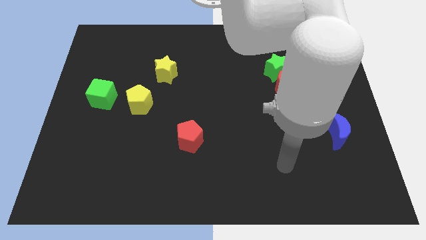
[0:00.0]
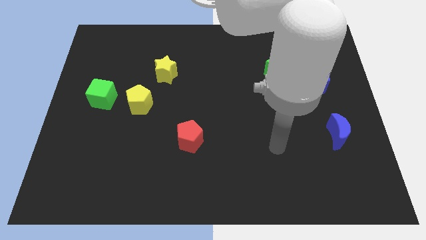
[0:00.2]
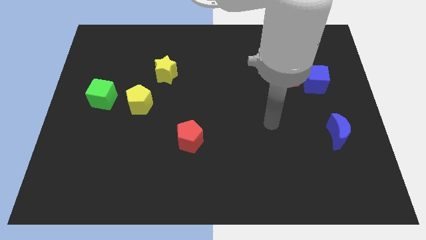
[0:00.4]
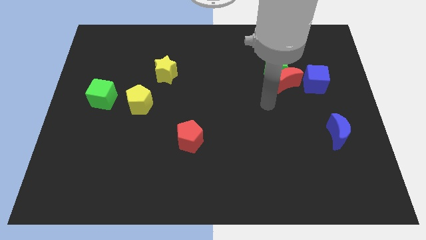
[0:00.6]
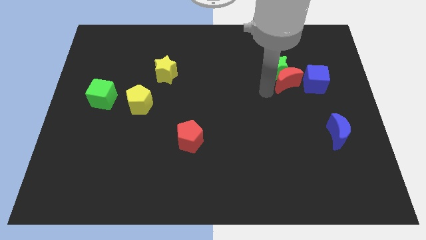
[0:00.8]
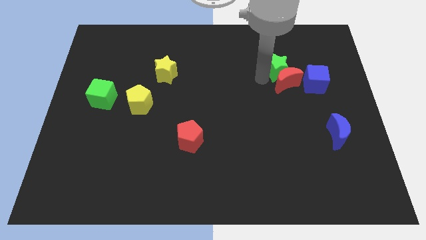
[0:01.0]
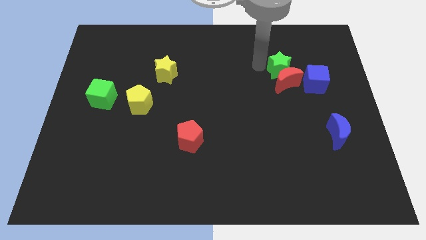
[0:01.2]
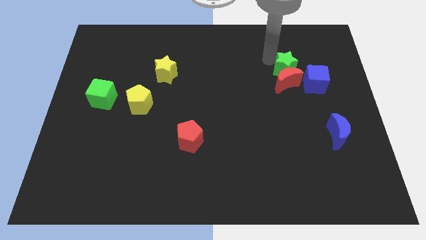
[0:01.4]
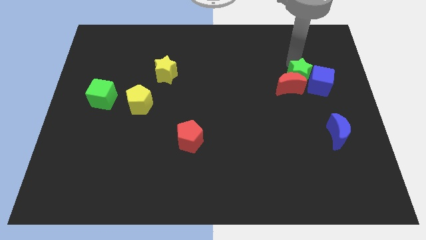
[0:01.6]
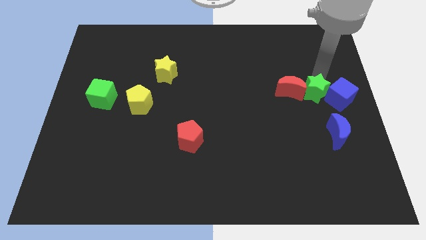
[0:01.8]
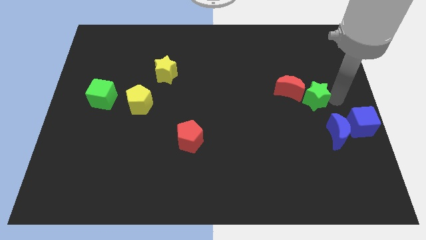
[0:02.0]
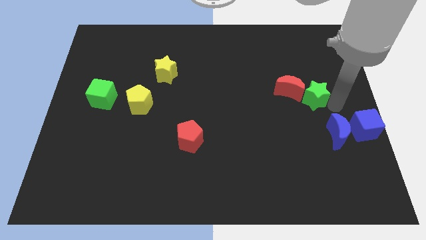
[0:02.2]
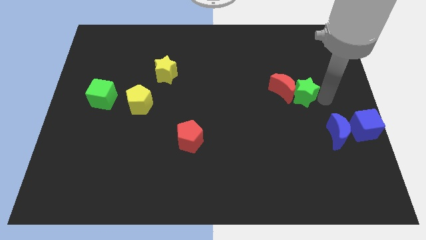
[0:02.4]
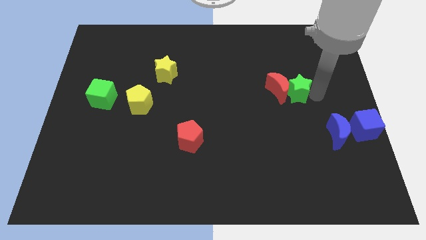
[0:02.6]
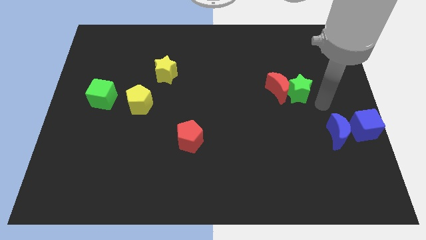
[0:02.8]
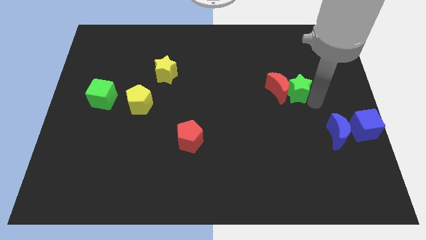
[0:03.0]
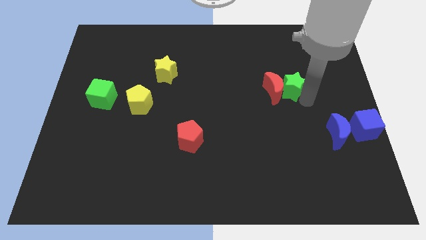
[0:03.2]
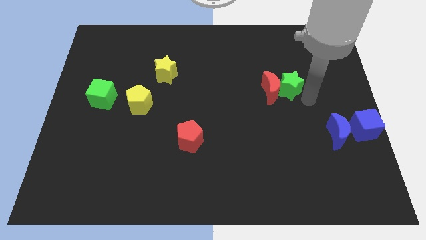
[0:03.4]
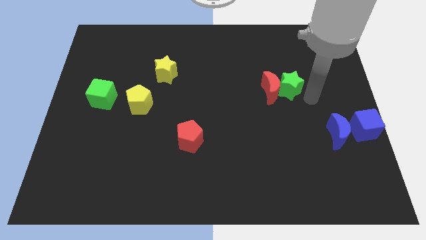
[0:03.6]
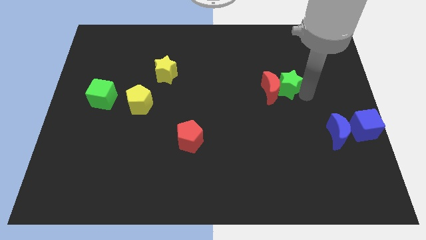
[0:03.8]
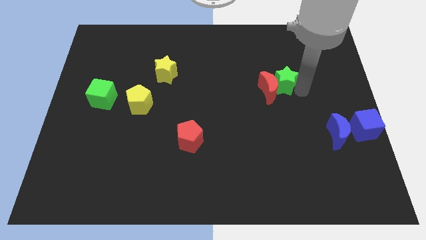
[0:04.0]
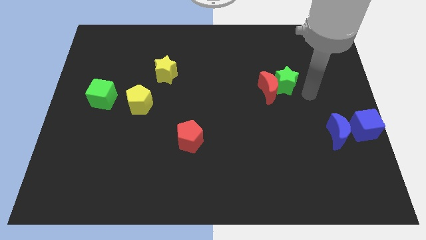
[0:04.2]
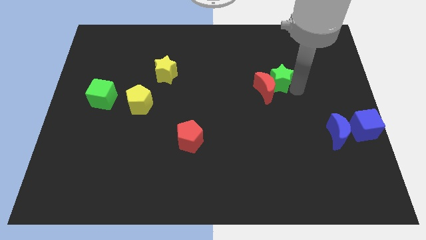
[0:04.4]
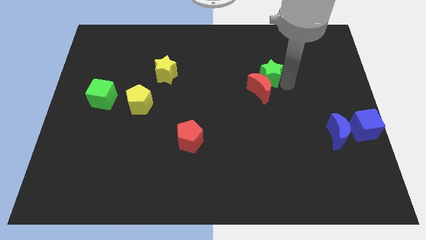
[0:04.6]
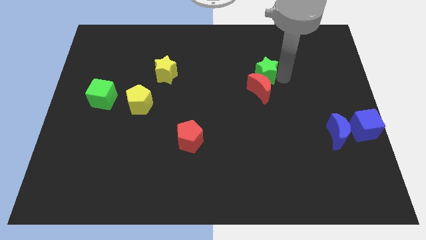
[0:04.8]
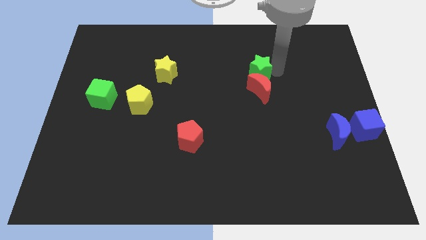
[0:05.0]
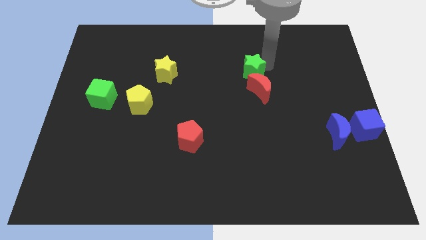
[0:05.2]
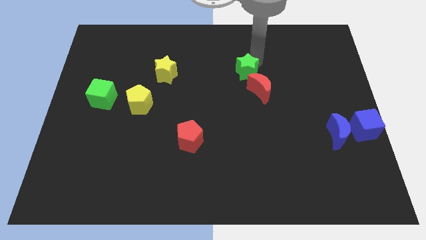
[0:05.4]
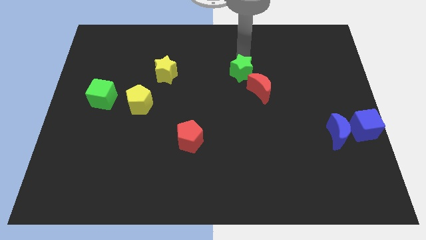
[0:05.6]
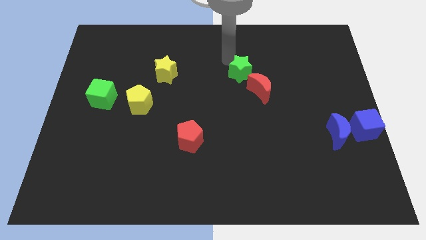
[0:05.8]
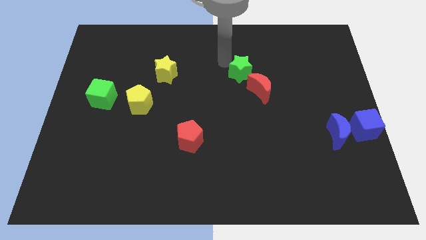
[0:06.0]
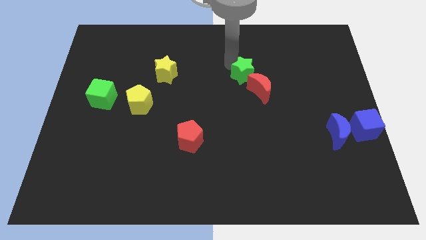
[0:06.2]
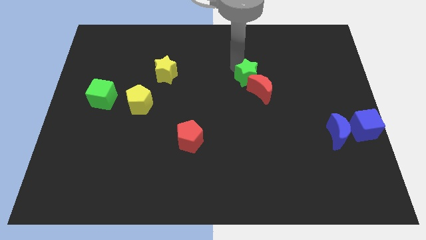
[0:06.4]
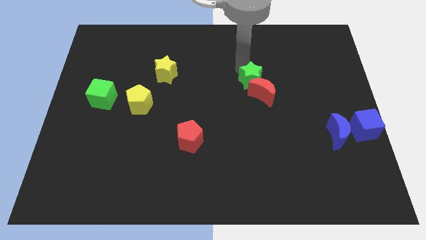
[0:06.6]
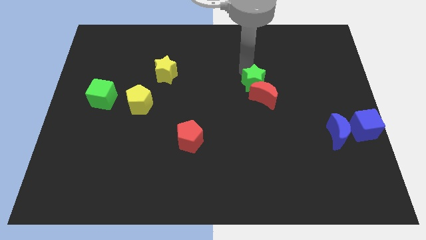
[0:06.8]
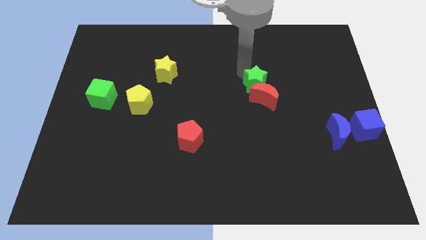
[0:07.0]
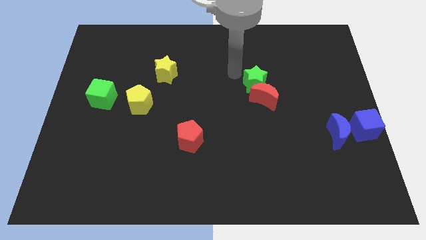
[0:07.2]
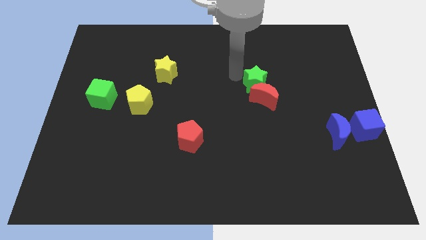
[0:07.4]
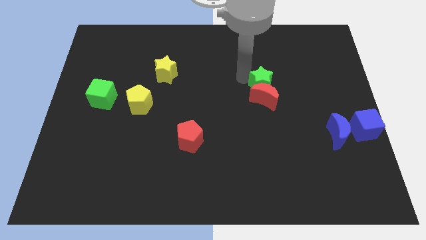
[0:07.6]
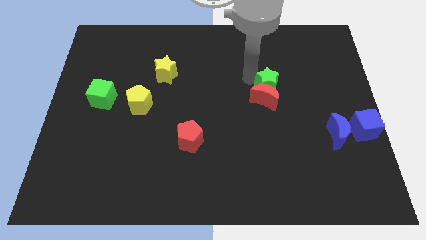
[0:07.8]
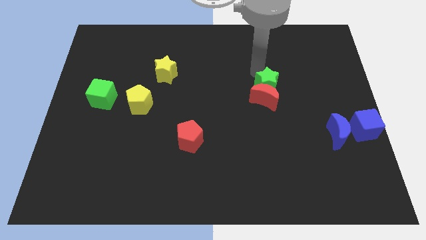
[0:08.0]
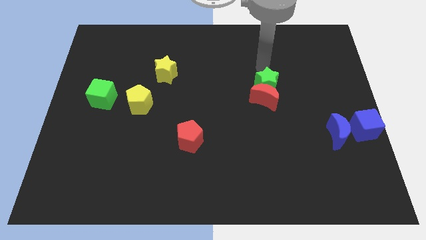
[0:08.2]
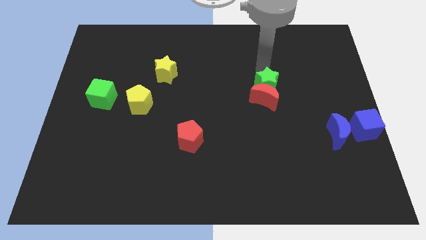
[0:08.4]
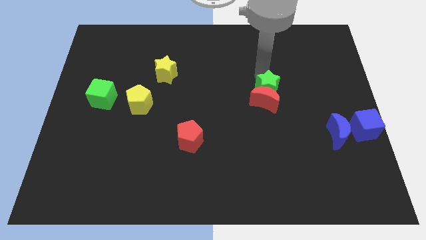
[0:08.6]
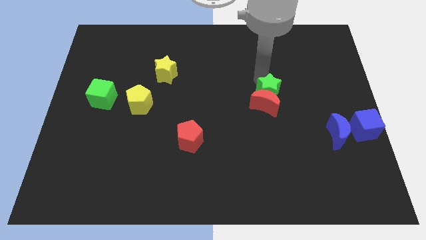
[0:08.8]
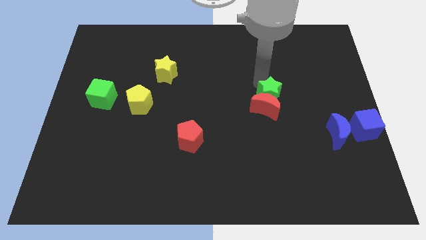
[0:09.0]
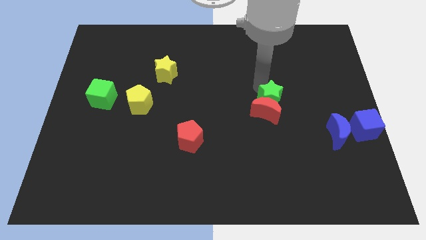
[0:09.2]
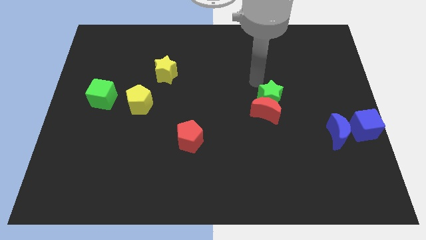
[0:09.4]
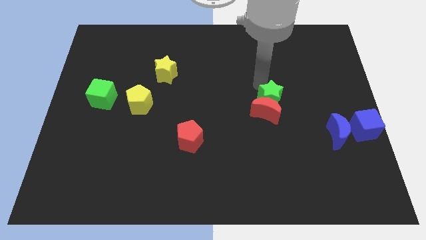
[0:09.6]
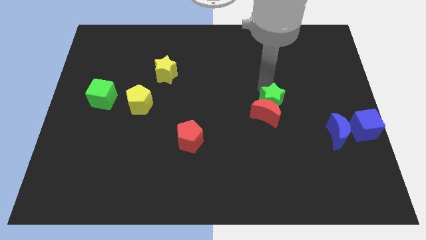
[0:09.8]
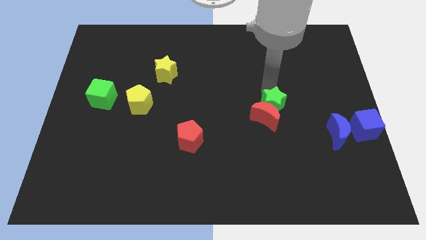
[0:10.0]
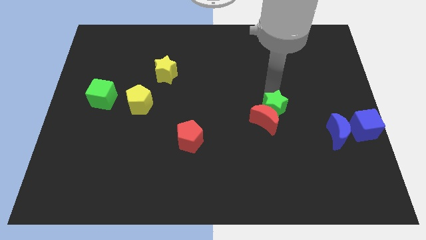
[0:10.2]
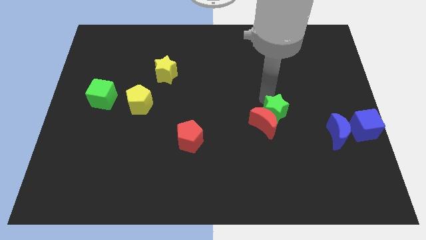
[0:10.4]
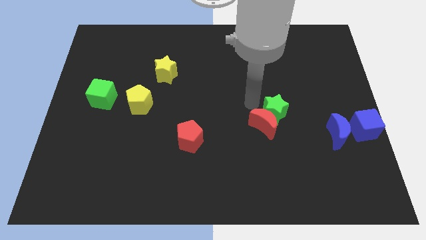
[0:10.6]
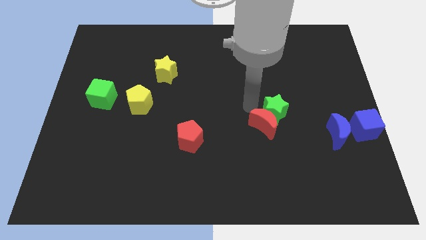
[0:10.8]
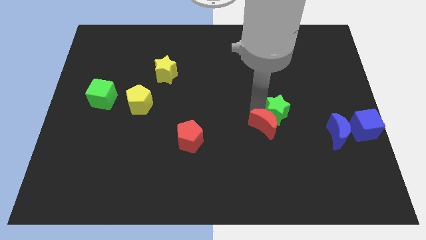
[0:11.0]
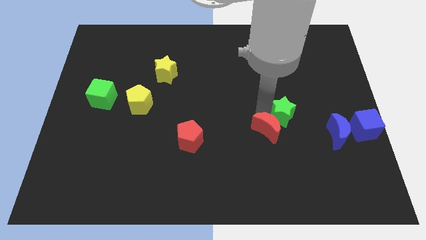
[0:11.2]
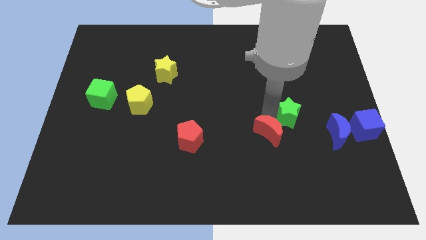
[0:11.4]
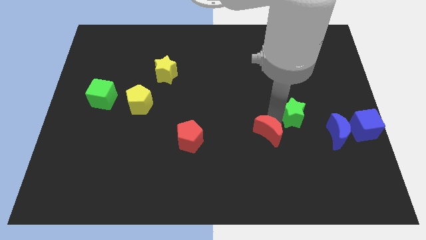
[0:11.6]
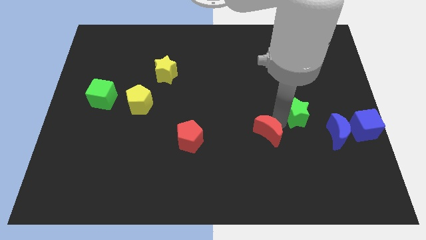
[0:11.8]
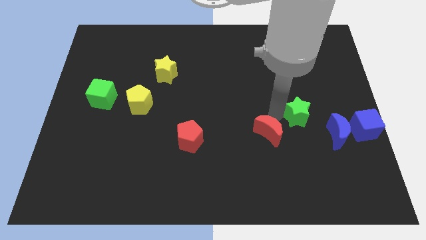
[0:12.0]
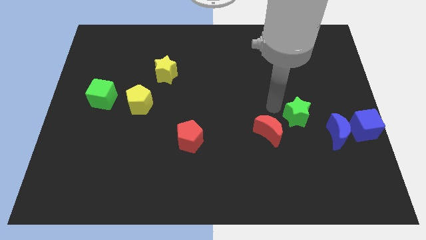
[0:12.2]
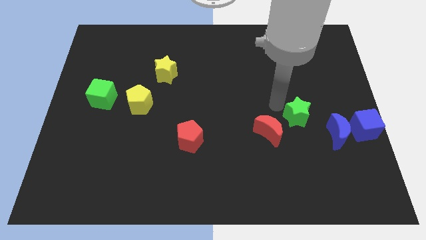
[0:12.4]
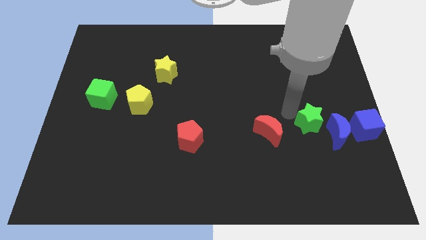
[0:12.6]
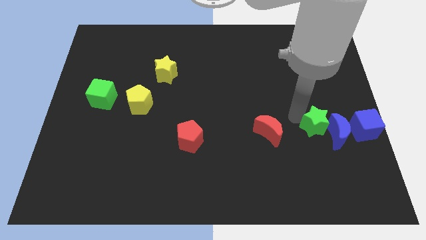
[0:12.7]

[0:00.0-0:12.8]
push the green star next to the blue moon
